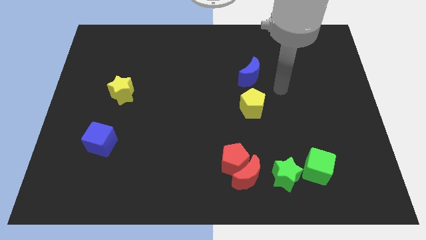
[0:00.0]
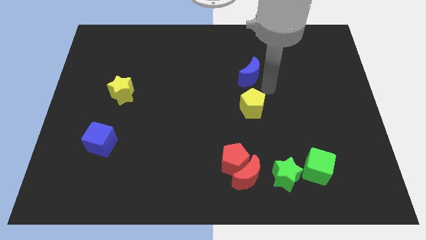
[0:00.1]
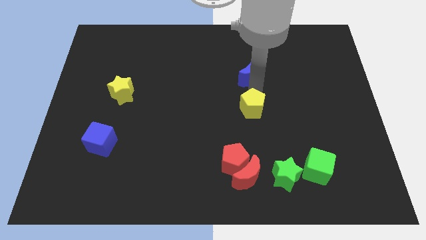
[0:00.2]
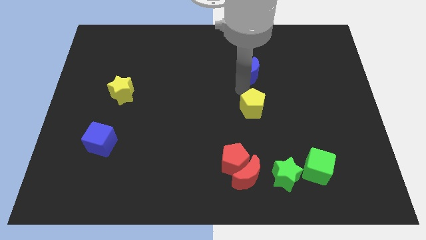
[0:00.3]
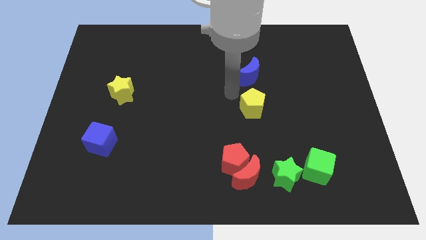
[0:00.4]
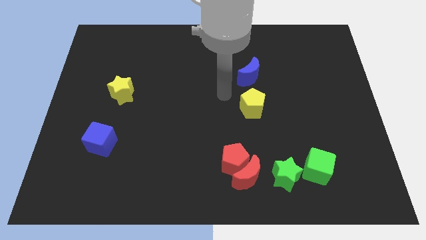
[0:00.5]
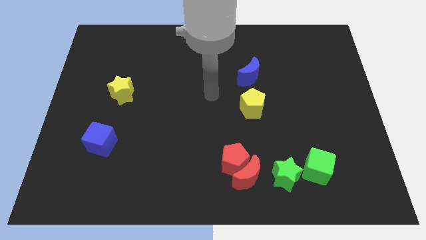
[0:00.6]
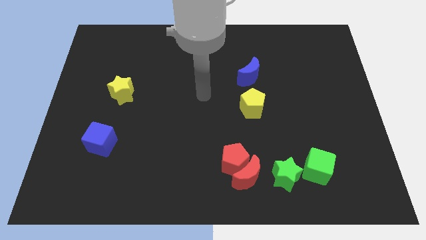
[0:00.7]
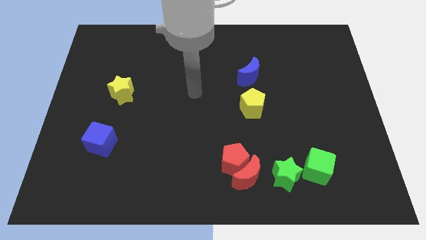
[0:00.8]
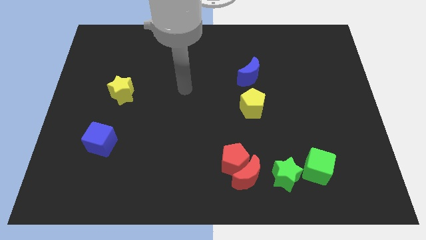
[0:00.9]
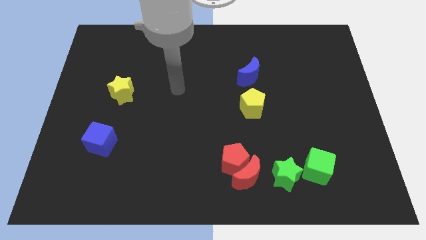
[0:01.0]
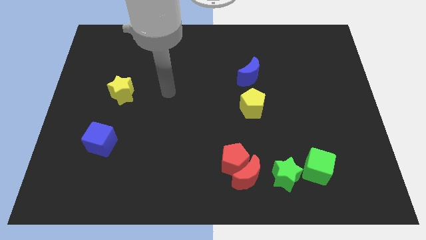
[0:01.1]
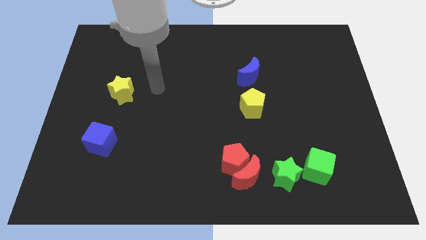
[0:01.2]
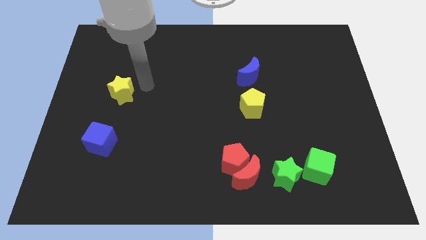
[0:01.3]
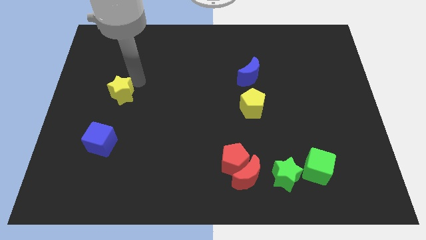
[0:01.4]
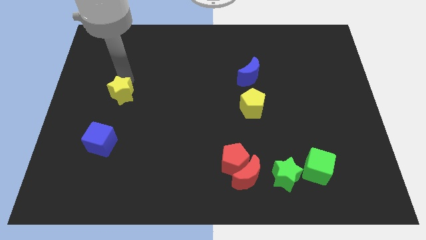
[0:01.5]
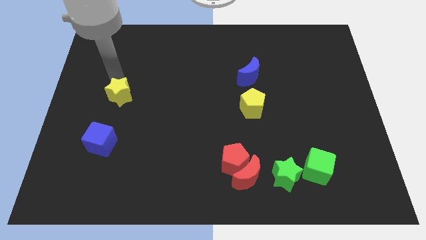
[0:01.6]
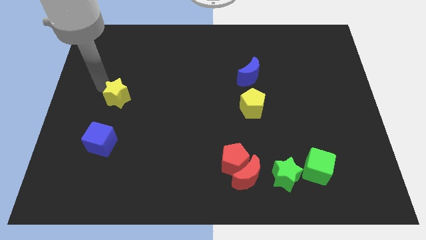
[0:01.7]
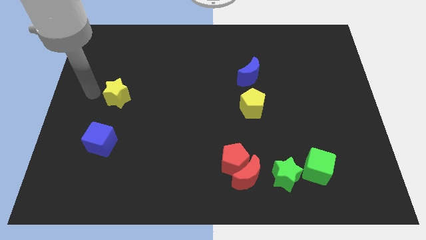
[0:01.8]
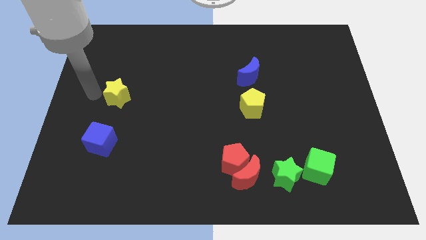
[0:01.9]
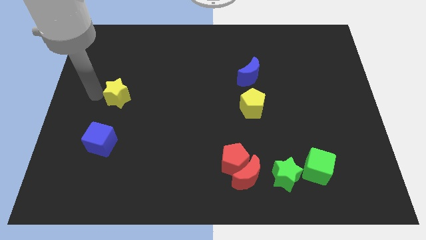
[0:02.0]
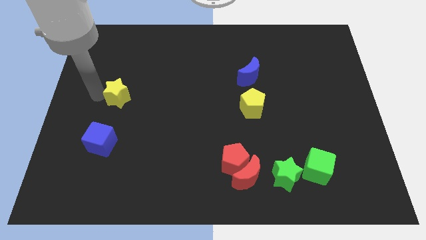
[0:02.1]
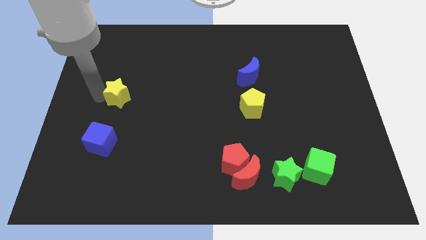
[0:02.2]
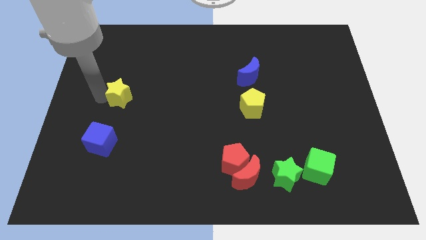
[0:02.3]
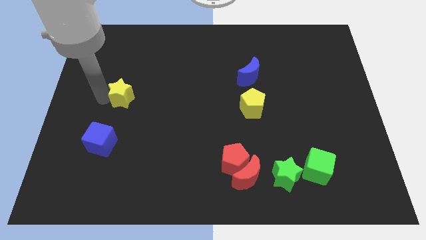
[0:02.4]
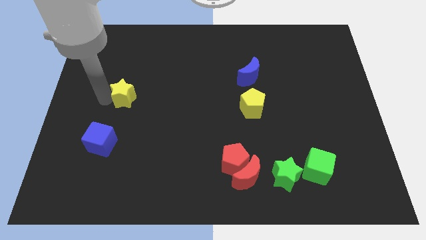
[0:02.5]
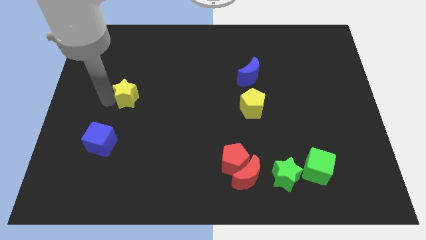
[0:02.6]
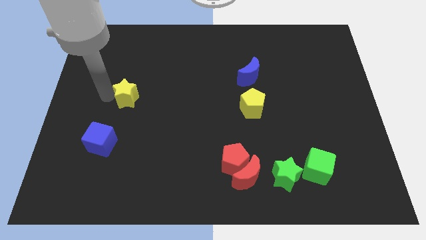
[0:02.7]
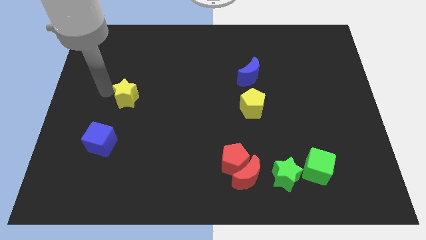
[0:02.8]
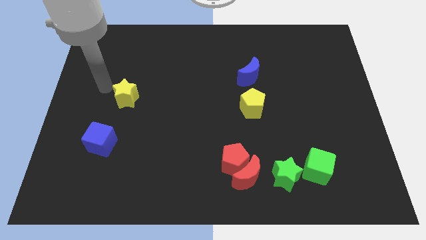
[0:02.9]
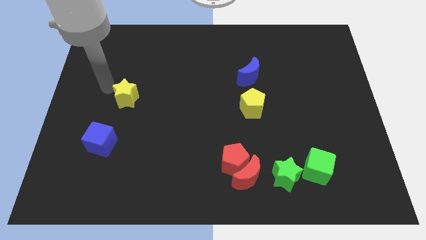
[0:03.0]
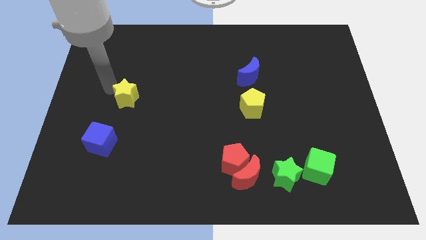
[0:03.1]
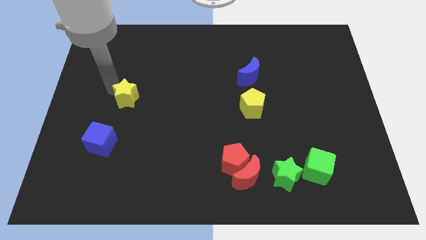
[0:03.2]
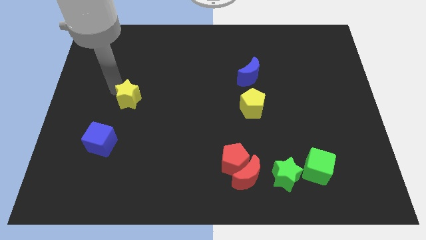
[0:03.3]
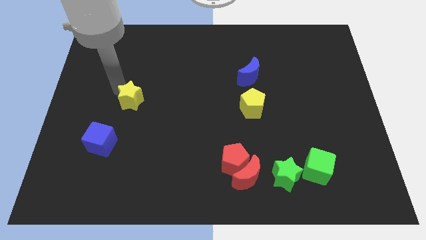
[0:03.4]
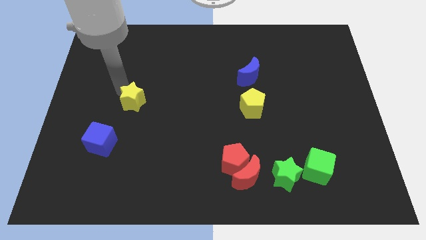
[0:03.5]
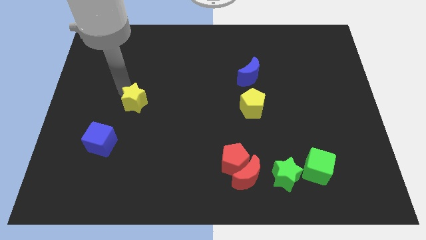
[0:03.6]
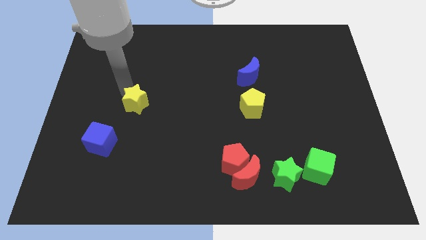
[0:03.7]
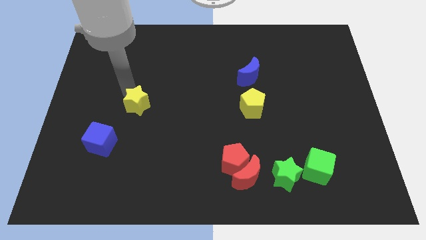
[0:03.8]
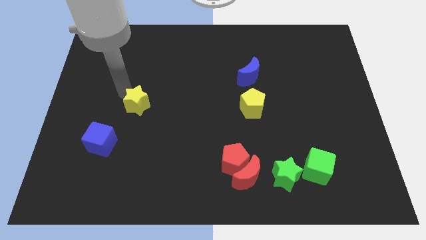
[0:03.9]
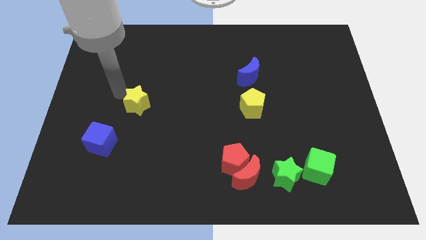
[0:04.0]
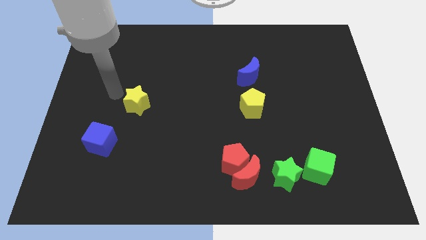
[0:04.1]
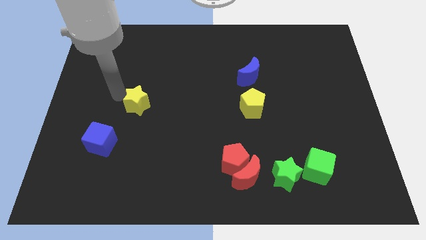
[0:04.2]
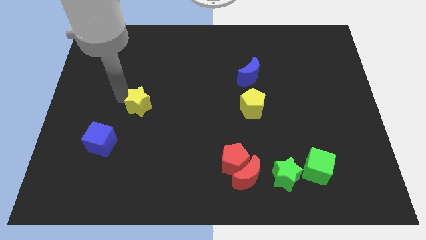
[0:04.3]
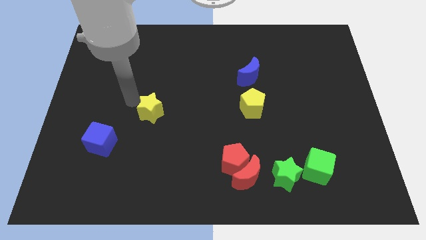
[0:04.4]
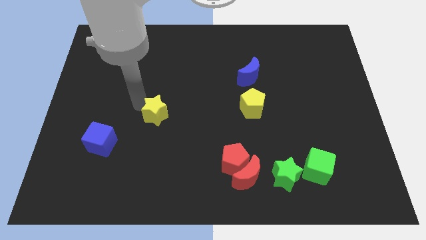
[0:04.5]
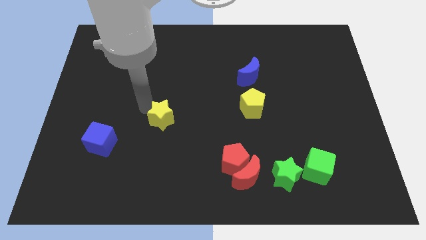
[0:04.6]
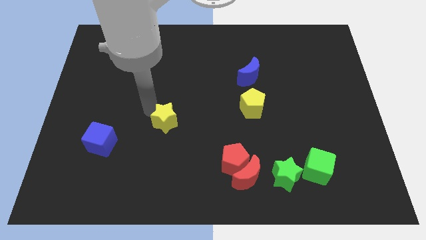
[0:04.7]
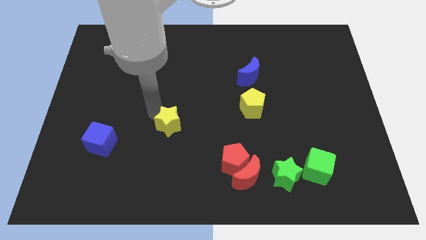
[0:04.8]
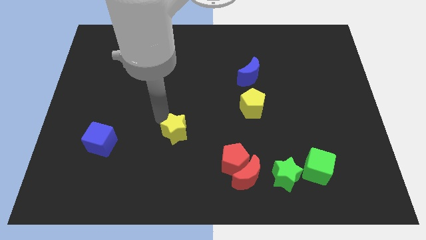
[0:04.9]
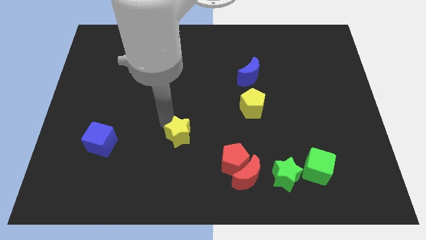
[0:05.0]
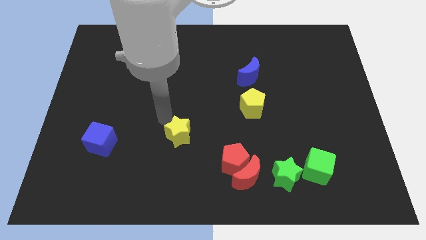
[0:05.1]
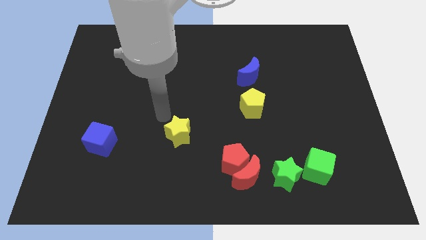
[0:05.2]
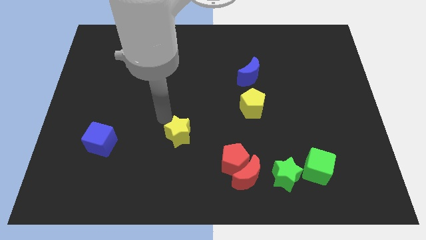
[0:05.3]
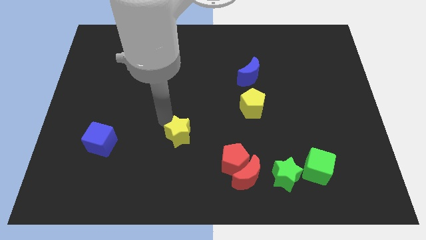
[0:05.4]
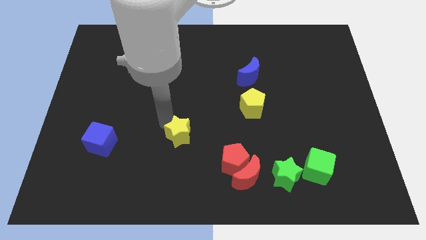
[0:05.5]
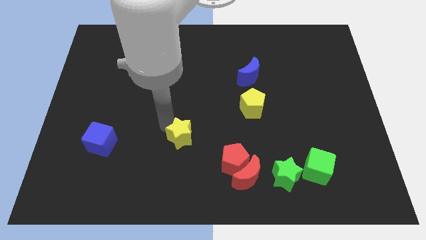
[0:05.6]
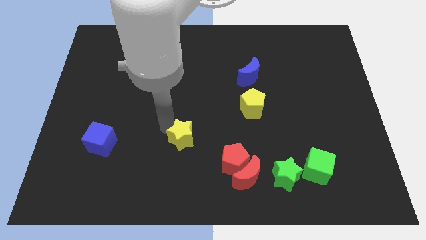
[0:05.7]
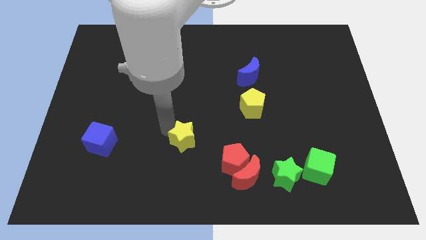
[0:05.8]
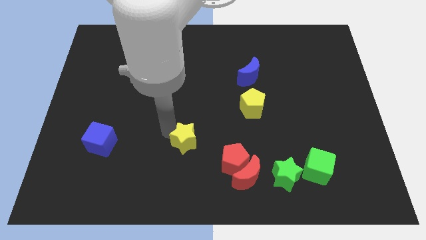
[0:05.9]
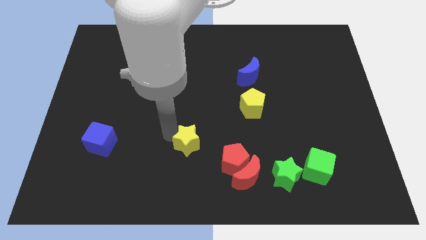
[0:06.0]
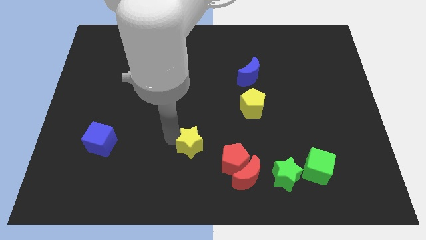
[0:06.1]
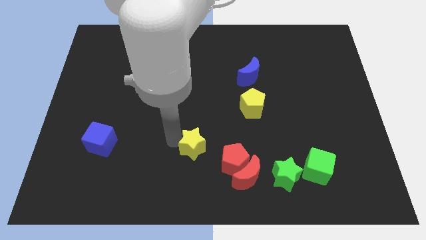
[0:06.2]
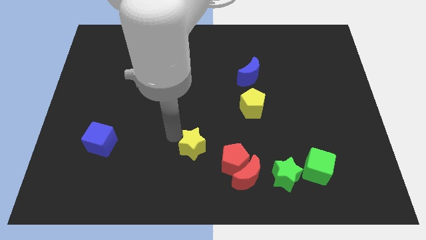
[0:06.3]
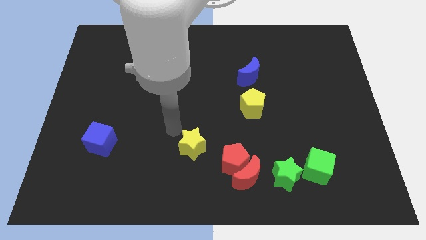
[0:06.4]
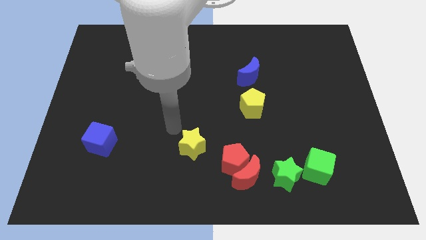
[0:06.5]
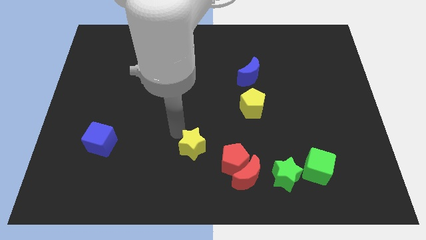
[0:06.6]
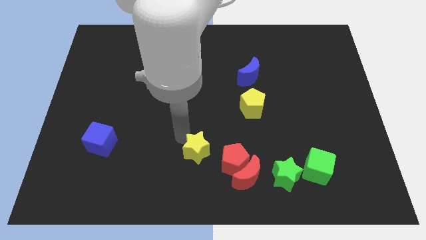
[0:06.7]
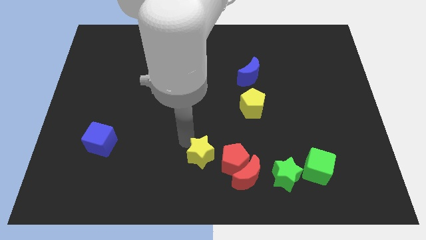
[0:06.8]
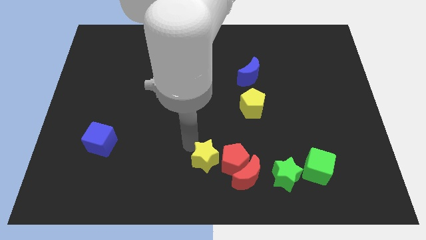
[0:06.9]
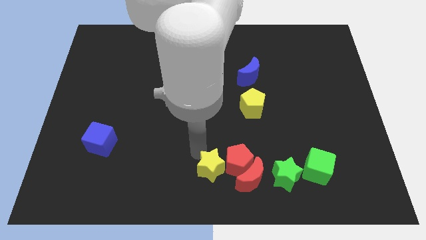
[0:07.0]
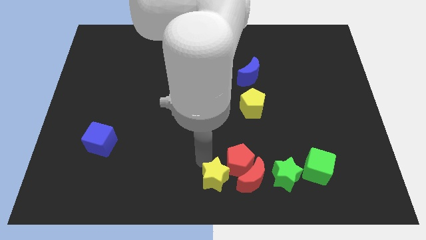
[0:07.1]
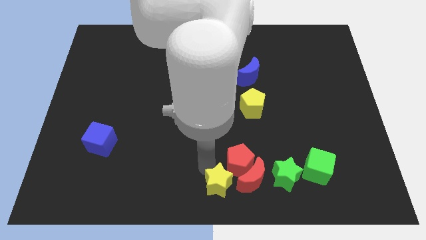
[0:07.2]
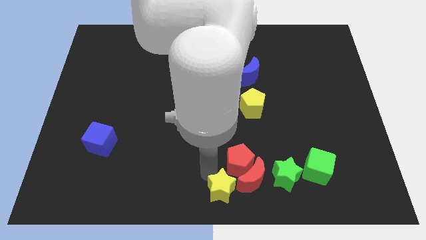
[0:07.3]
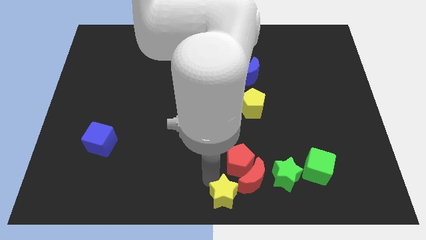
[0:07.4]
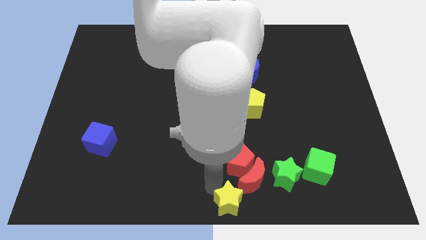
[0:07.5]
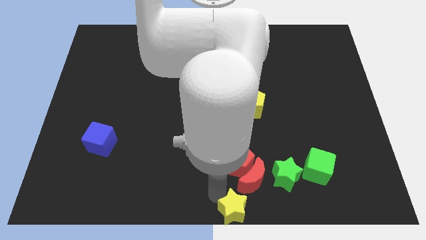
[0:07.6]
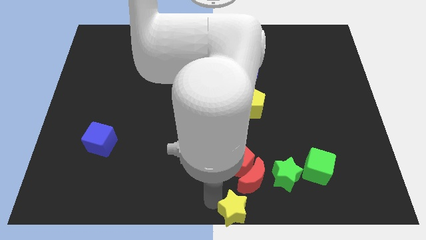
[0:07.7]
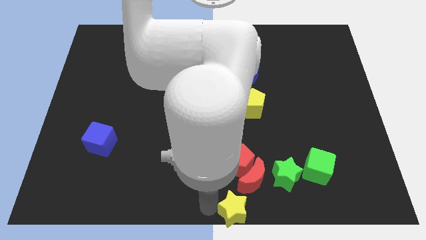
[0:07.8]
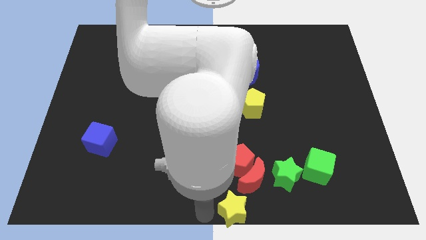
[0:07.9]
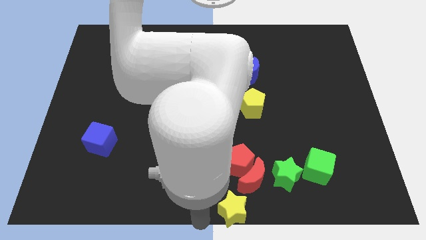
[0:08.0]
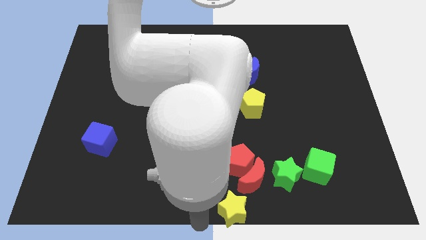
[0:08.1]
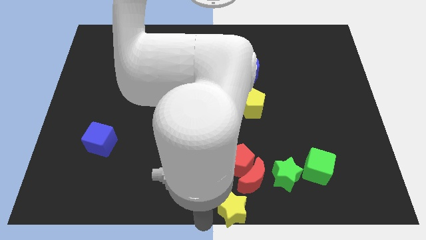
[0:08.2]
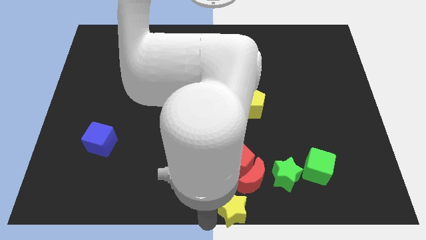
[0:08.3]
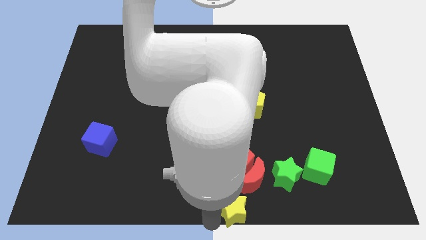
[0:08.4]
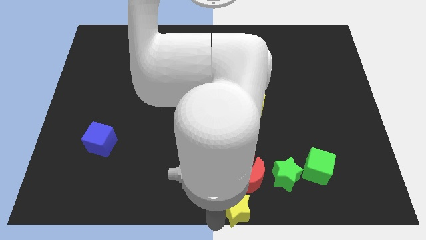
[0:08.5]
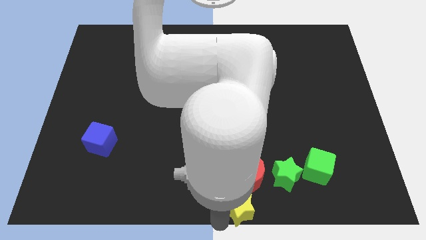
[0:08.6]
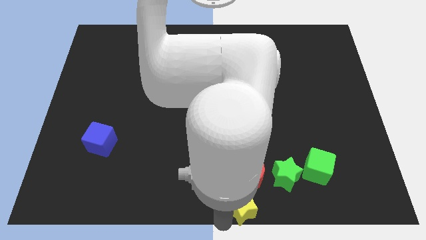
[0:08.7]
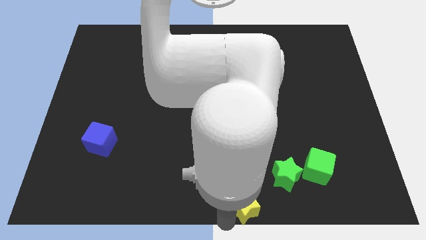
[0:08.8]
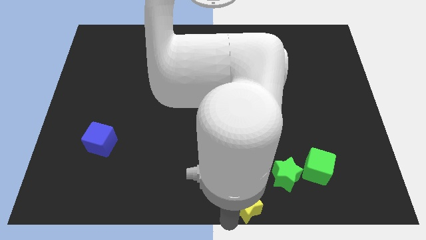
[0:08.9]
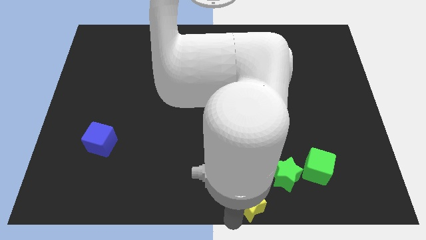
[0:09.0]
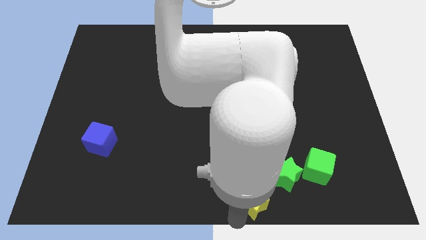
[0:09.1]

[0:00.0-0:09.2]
slide the yellow star diagonally down and to the right of the red pentagon
